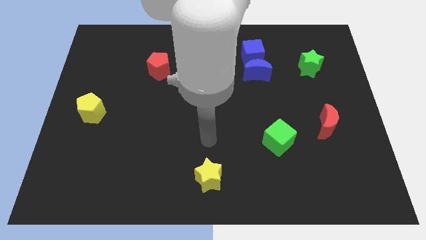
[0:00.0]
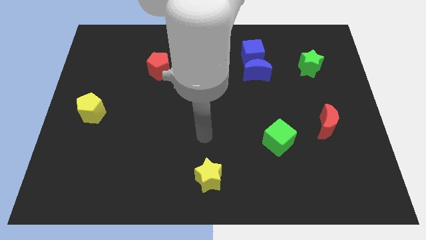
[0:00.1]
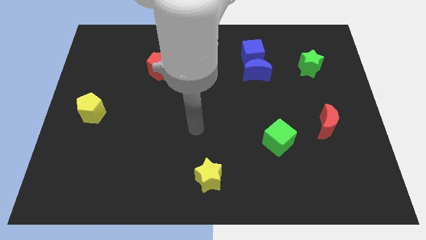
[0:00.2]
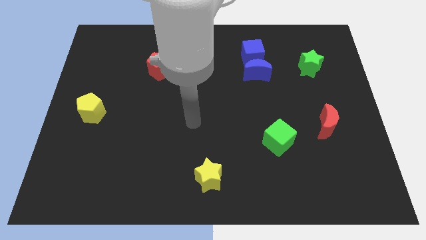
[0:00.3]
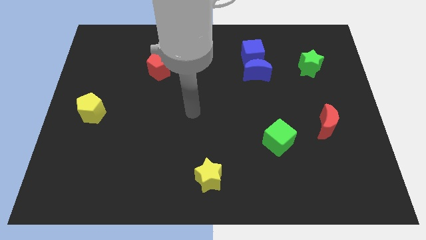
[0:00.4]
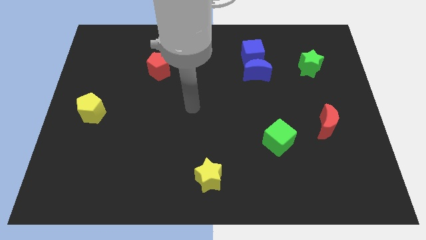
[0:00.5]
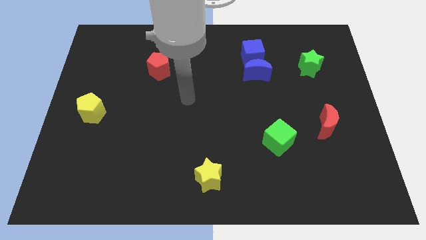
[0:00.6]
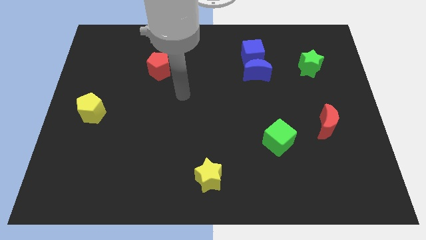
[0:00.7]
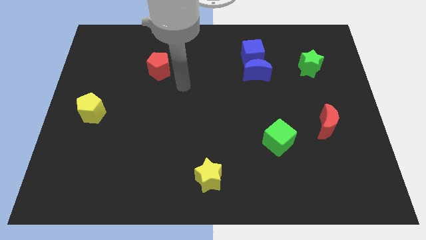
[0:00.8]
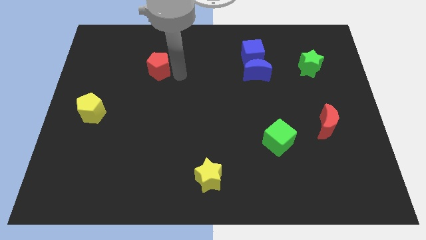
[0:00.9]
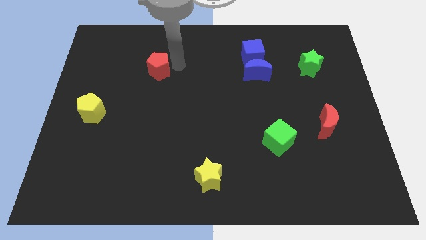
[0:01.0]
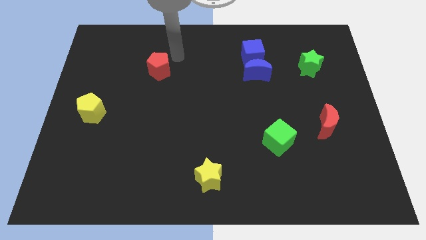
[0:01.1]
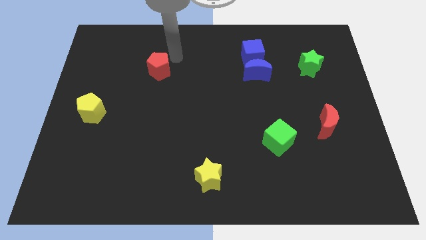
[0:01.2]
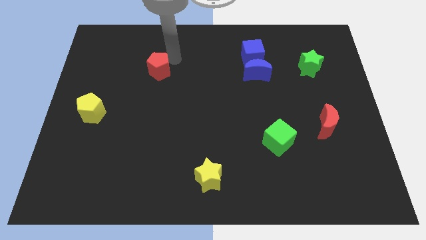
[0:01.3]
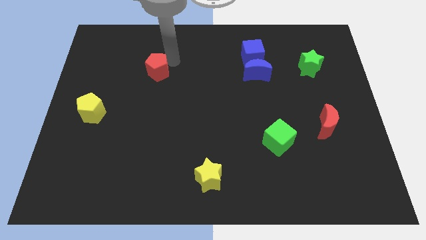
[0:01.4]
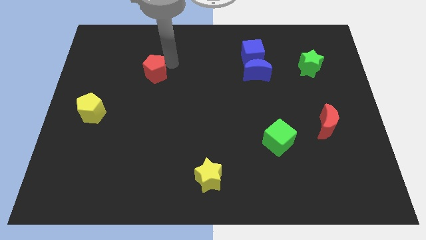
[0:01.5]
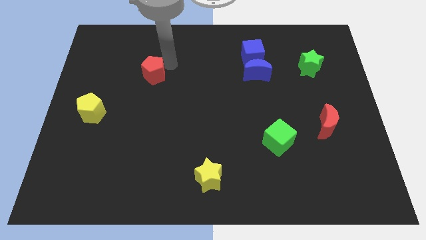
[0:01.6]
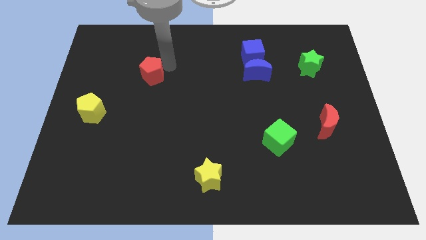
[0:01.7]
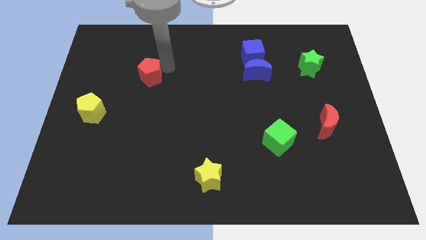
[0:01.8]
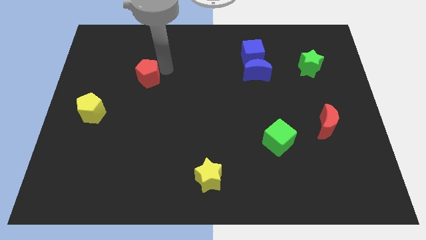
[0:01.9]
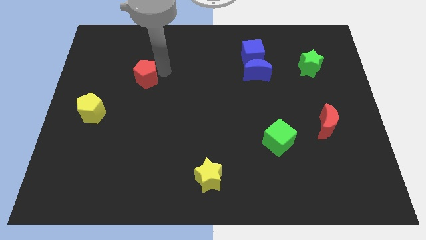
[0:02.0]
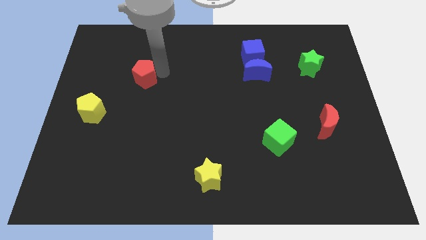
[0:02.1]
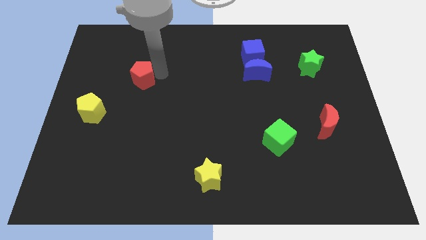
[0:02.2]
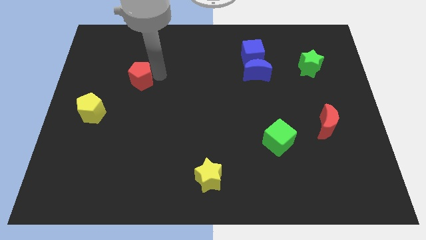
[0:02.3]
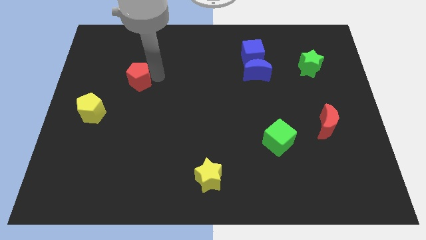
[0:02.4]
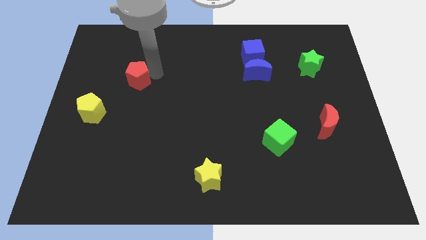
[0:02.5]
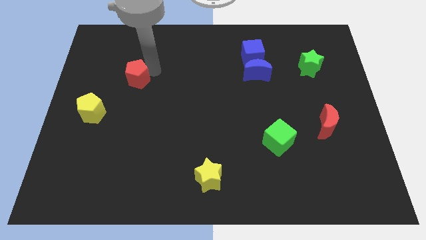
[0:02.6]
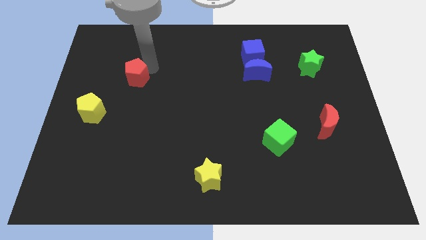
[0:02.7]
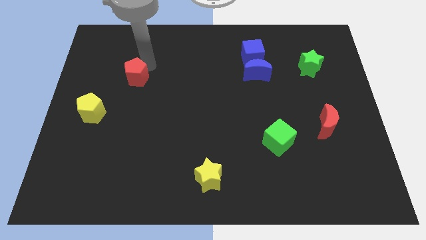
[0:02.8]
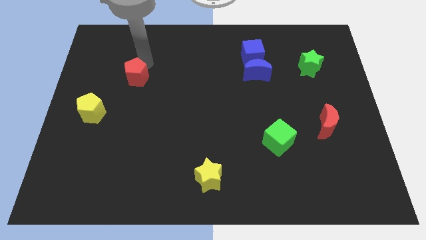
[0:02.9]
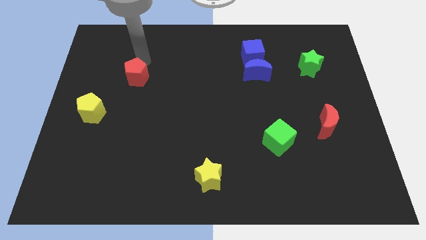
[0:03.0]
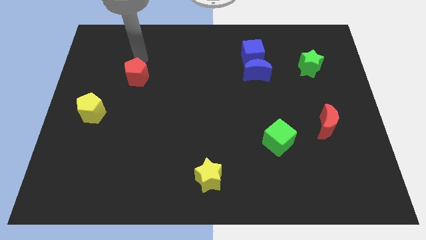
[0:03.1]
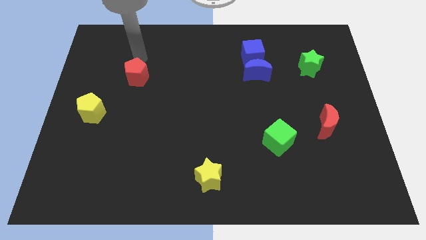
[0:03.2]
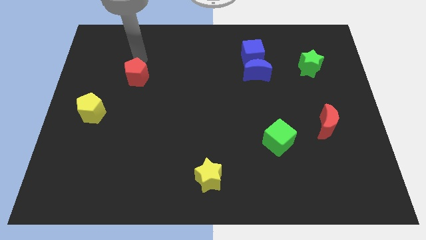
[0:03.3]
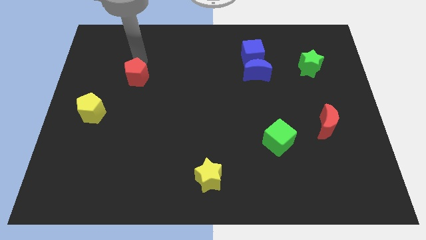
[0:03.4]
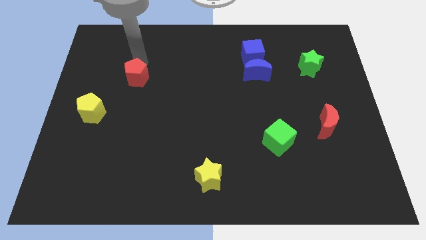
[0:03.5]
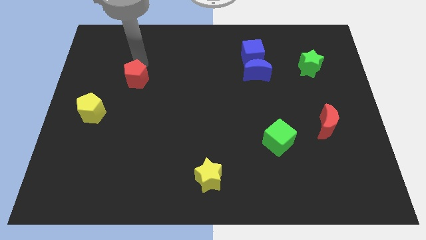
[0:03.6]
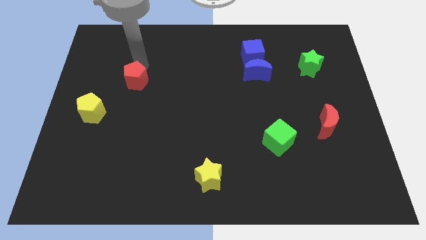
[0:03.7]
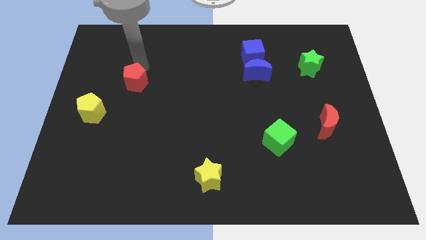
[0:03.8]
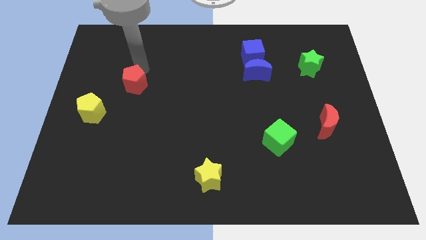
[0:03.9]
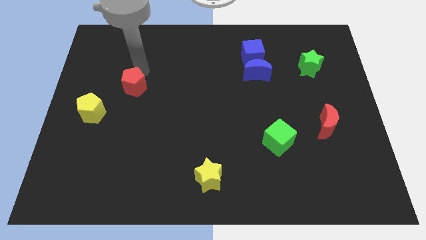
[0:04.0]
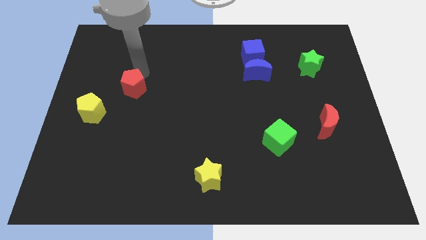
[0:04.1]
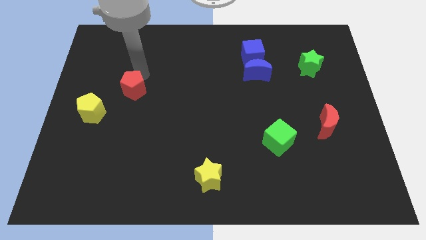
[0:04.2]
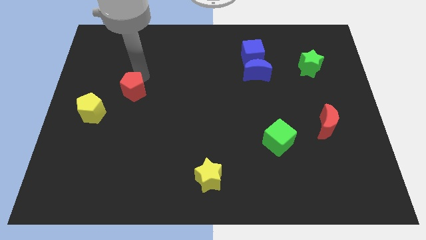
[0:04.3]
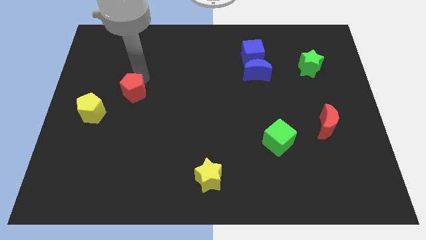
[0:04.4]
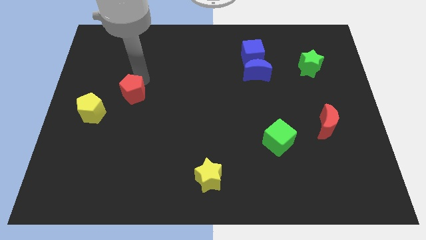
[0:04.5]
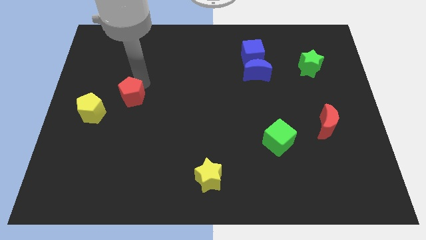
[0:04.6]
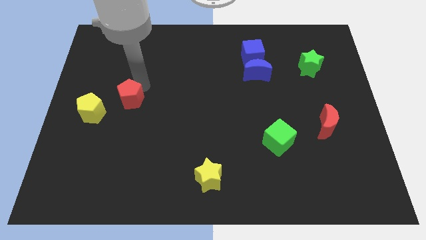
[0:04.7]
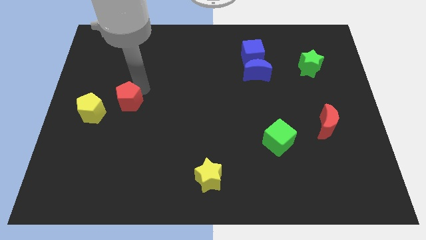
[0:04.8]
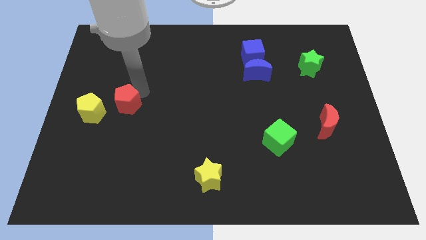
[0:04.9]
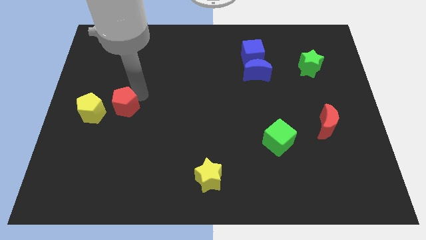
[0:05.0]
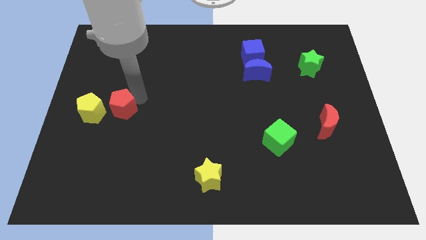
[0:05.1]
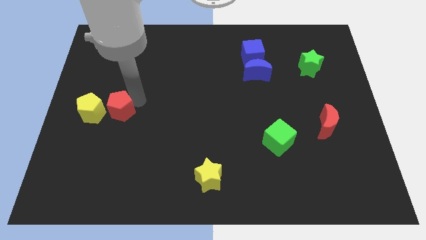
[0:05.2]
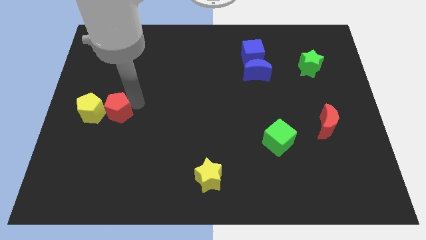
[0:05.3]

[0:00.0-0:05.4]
put the red pentagon towards the yellow pentagon

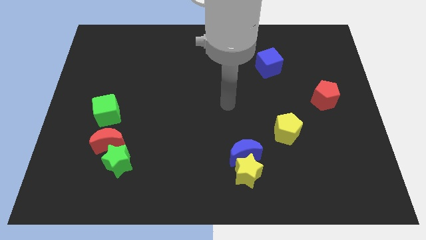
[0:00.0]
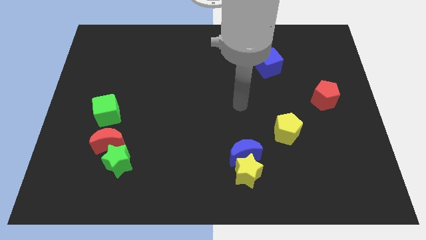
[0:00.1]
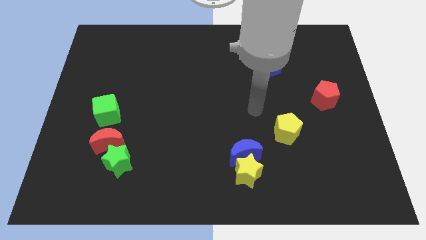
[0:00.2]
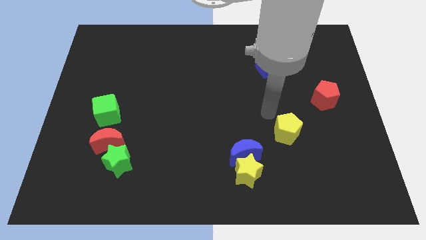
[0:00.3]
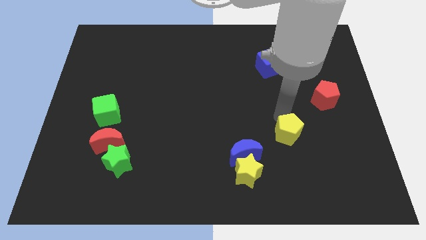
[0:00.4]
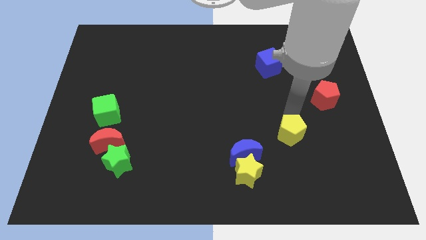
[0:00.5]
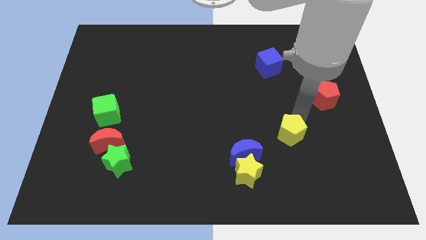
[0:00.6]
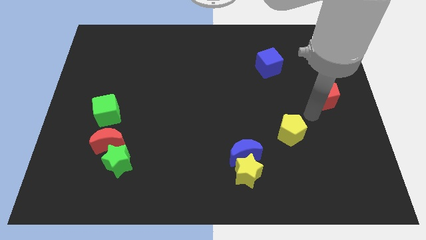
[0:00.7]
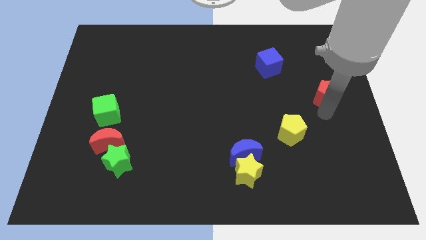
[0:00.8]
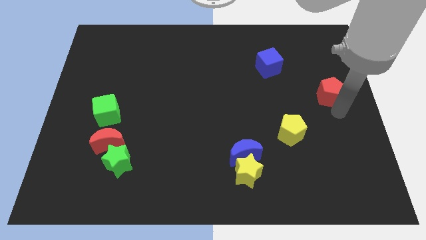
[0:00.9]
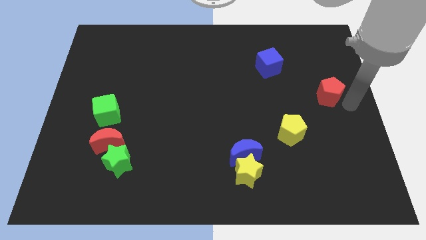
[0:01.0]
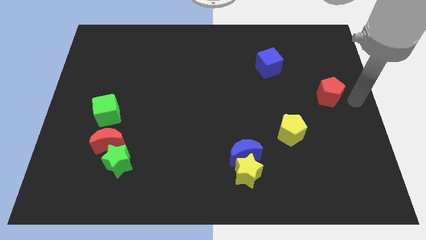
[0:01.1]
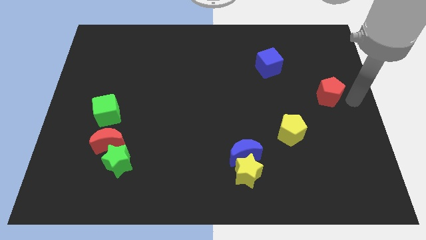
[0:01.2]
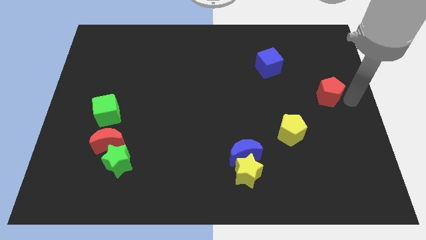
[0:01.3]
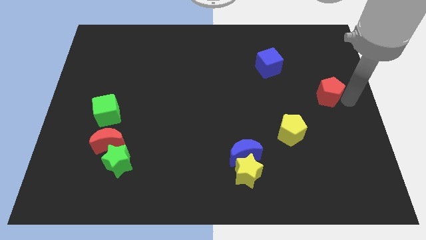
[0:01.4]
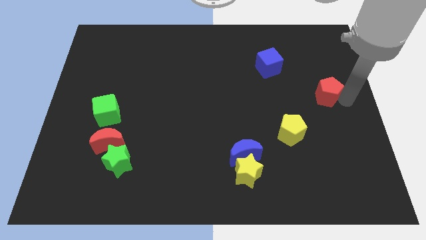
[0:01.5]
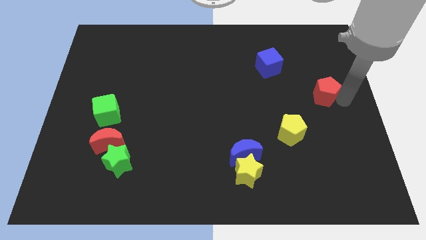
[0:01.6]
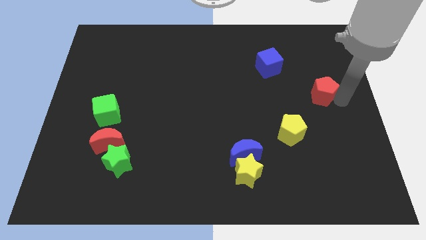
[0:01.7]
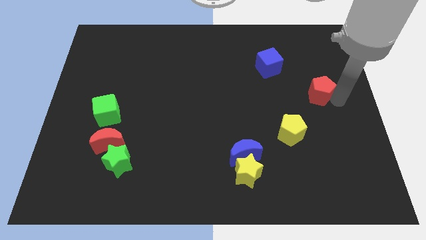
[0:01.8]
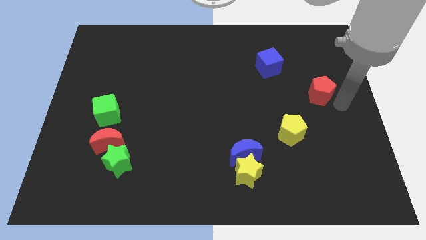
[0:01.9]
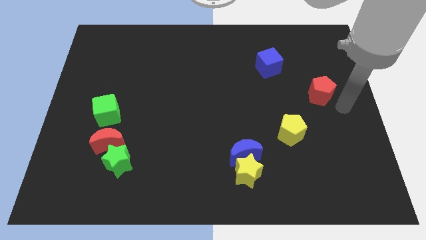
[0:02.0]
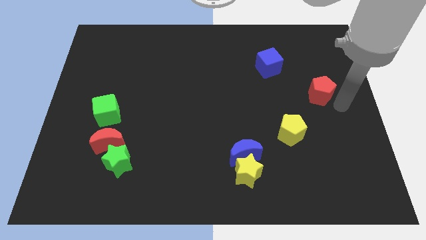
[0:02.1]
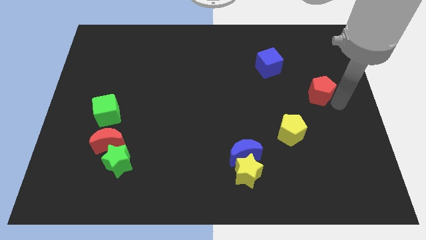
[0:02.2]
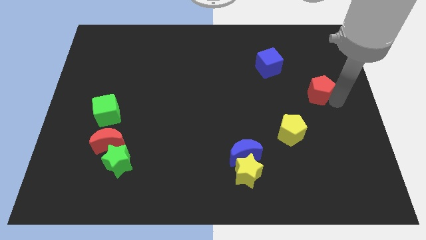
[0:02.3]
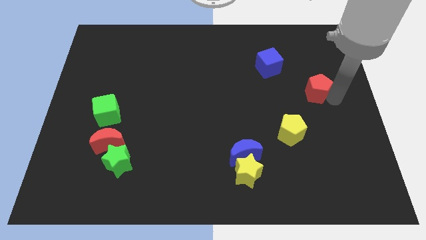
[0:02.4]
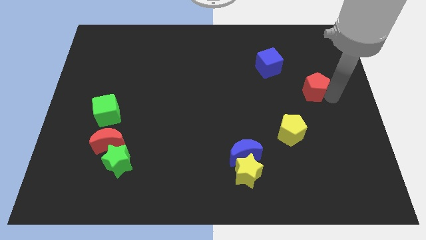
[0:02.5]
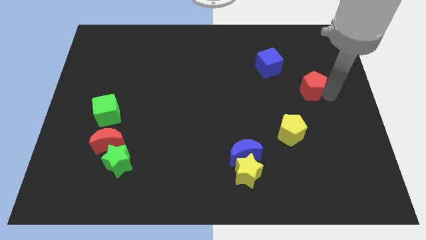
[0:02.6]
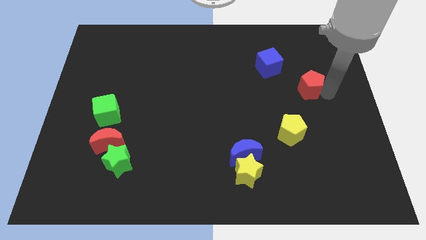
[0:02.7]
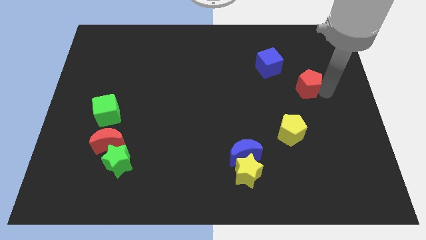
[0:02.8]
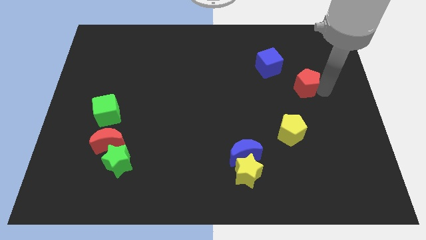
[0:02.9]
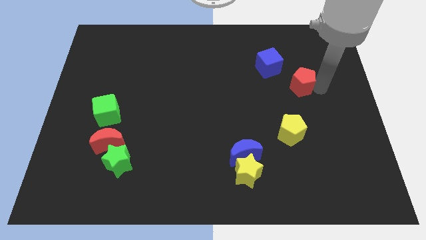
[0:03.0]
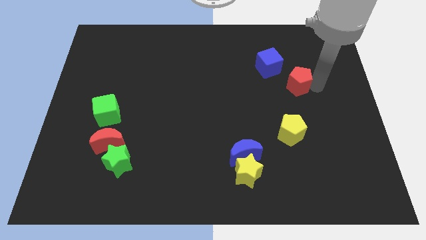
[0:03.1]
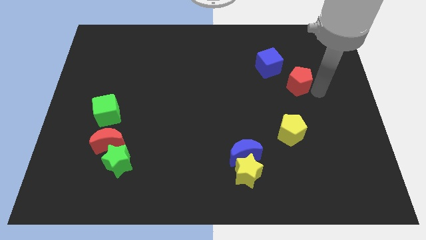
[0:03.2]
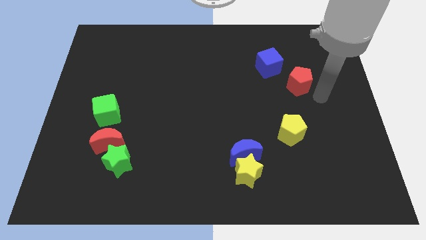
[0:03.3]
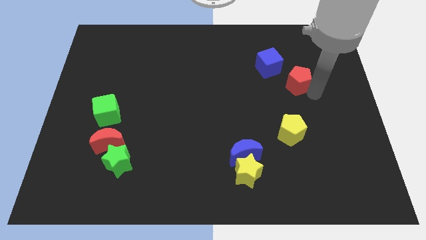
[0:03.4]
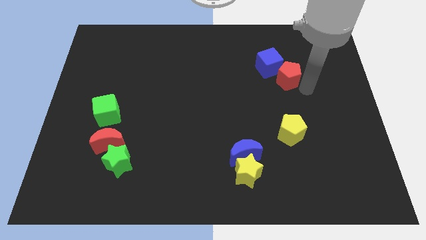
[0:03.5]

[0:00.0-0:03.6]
move the red pentagon to the blue cube
